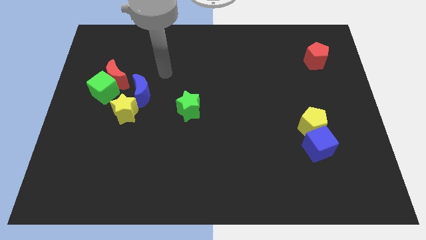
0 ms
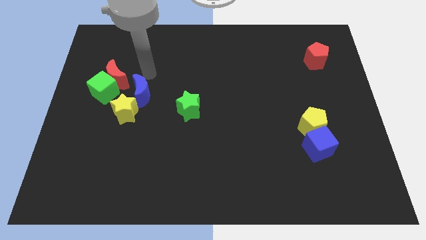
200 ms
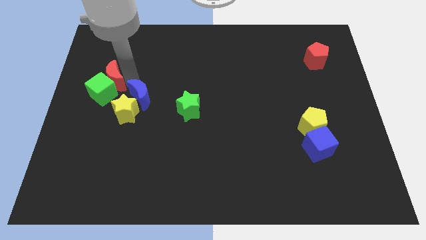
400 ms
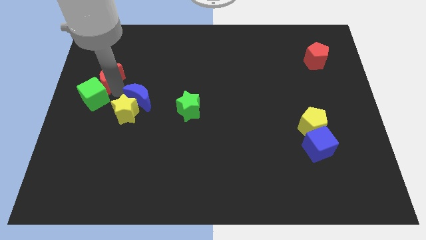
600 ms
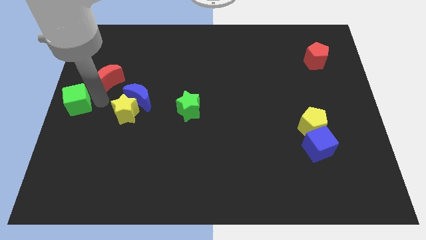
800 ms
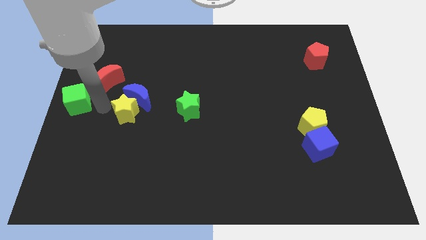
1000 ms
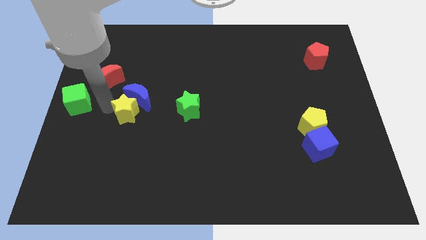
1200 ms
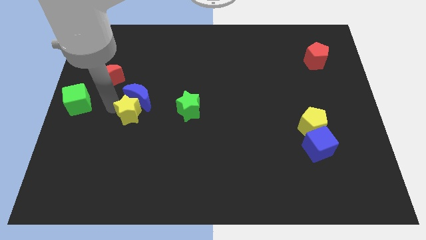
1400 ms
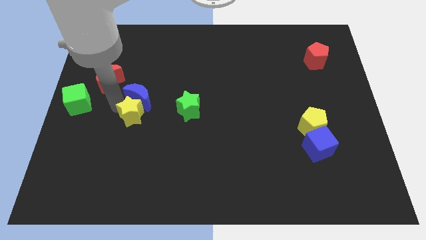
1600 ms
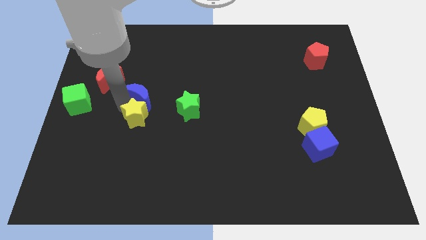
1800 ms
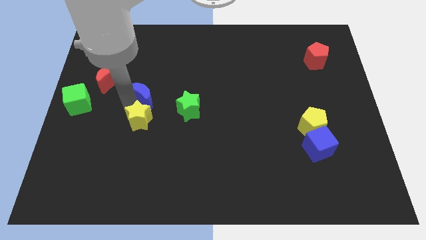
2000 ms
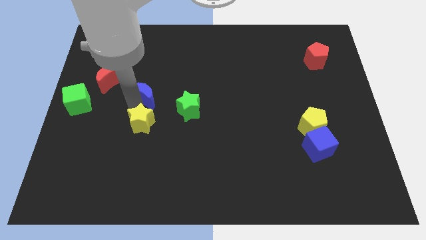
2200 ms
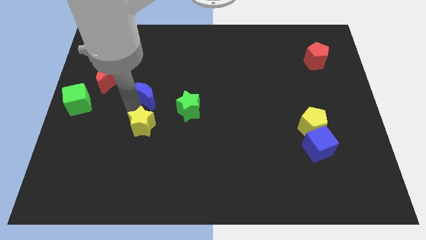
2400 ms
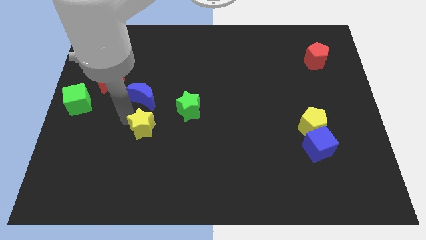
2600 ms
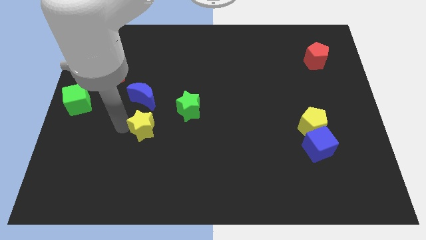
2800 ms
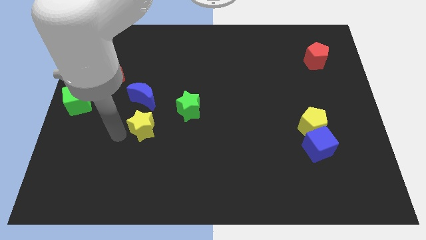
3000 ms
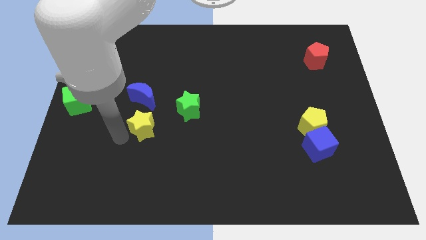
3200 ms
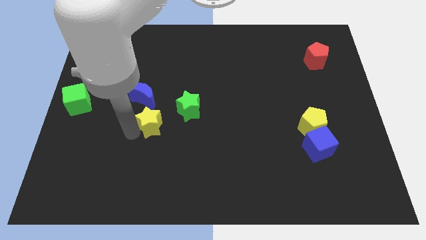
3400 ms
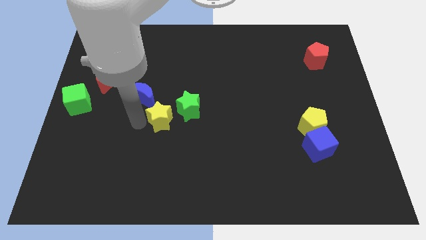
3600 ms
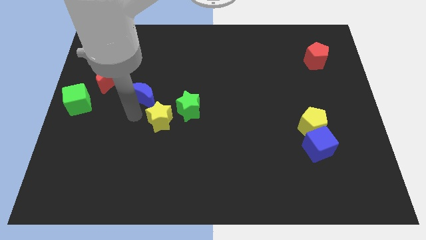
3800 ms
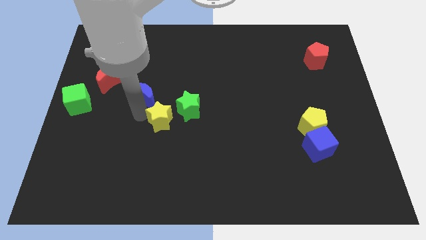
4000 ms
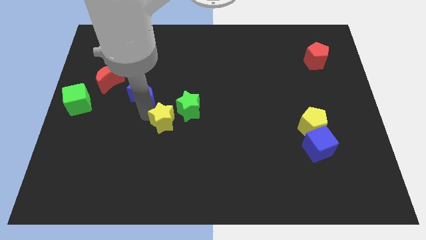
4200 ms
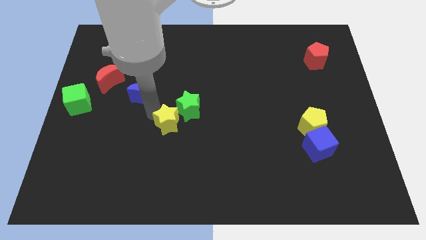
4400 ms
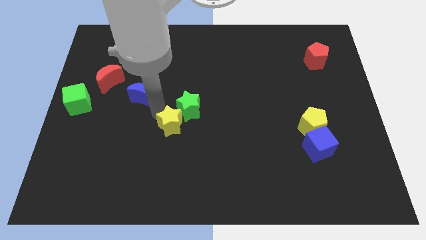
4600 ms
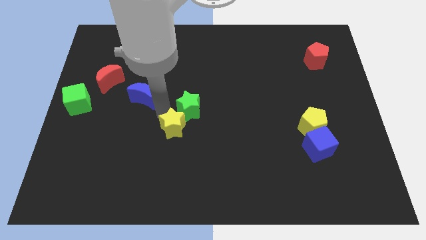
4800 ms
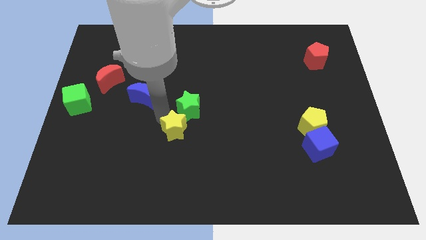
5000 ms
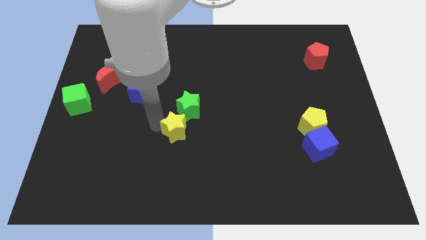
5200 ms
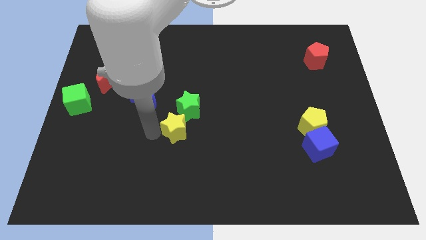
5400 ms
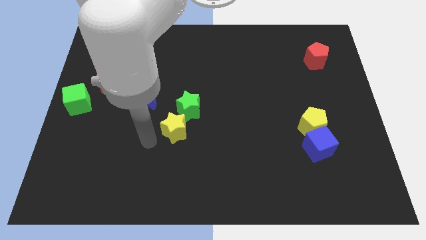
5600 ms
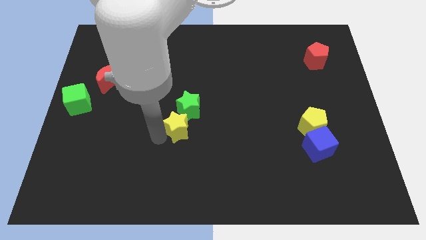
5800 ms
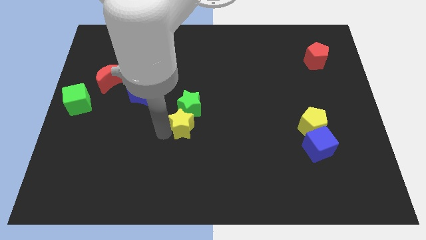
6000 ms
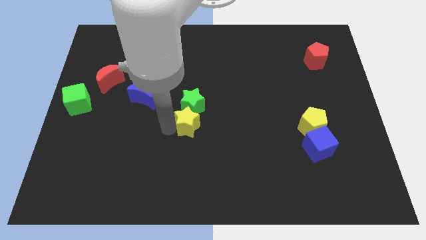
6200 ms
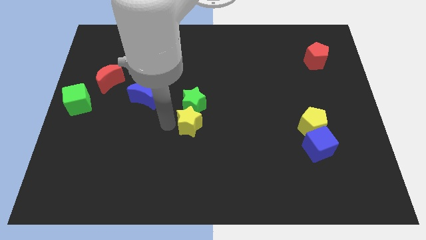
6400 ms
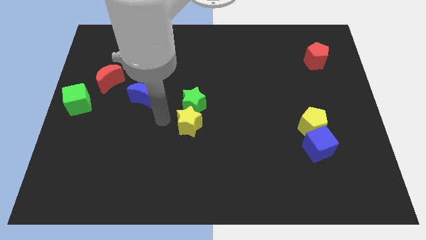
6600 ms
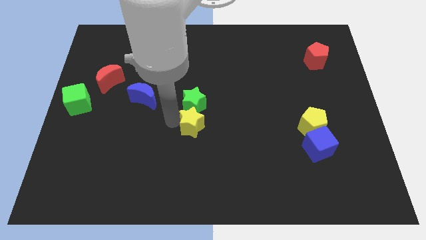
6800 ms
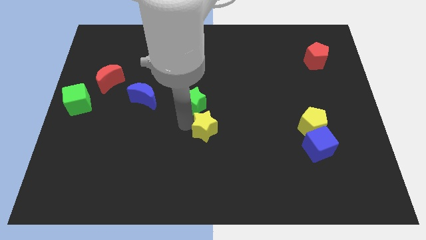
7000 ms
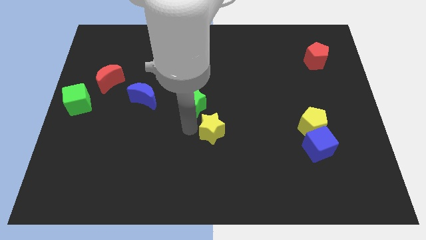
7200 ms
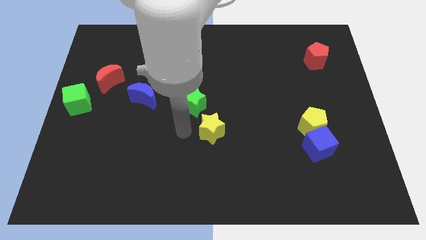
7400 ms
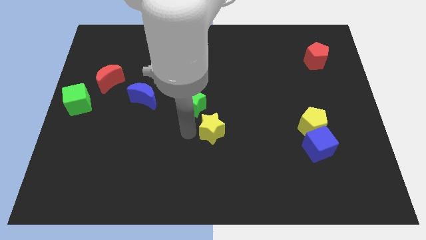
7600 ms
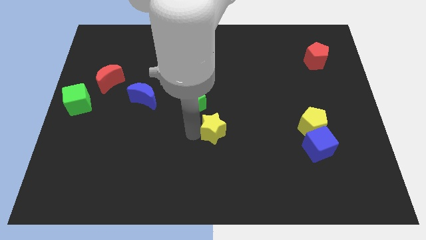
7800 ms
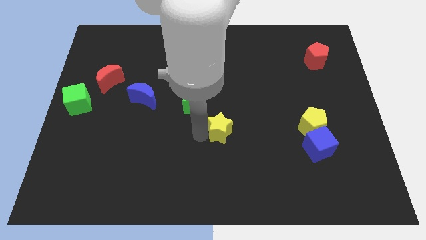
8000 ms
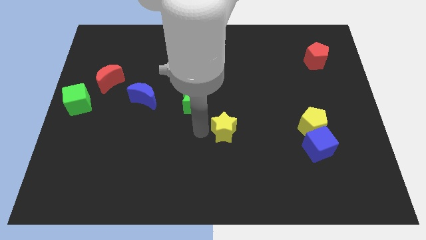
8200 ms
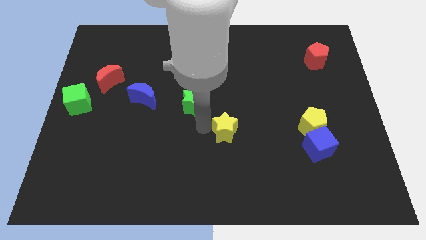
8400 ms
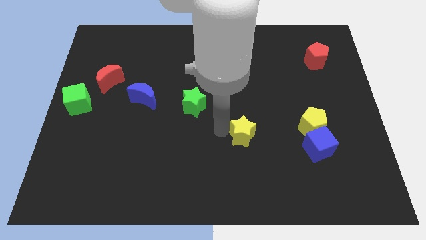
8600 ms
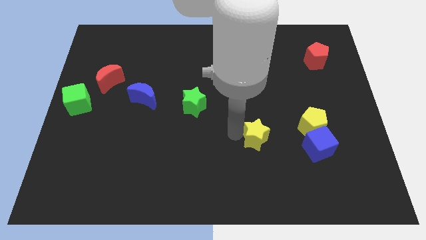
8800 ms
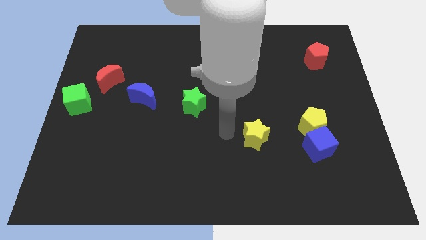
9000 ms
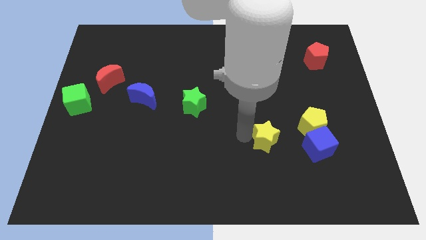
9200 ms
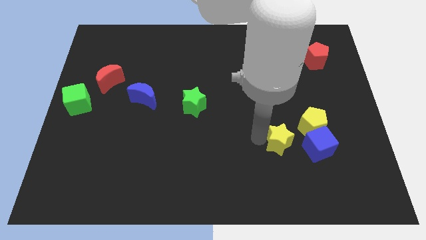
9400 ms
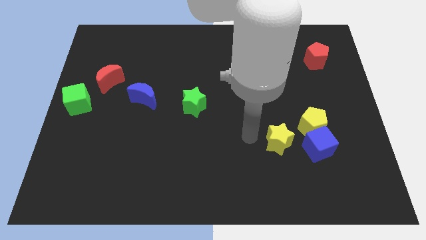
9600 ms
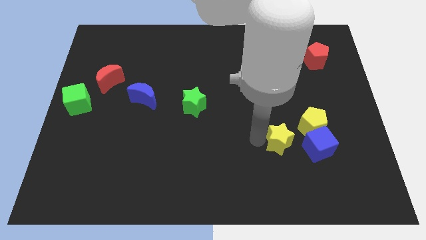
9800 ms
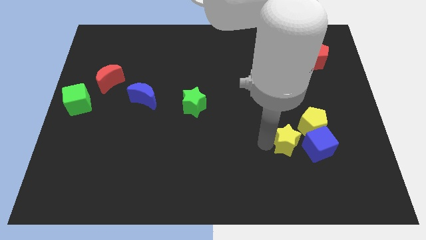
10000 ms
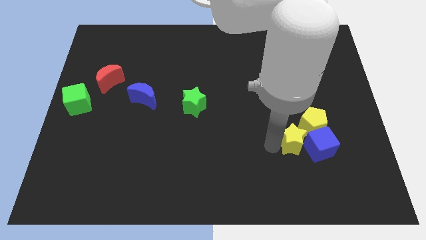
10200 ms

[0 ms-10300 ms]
move the yellow star close to the blue cube

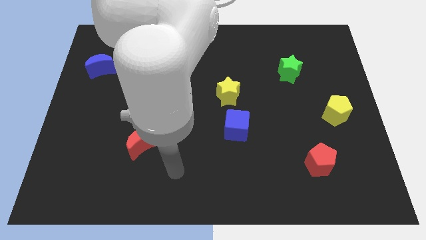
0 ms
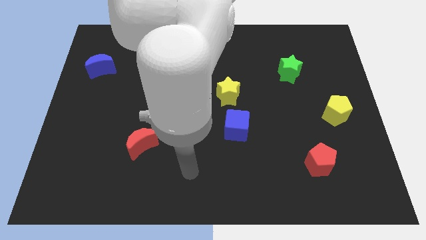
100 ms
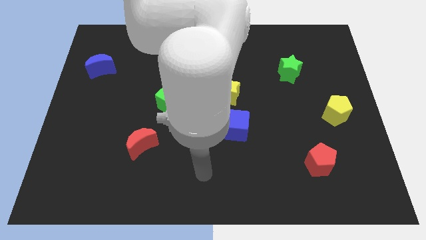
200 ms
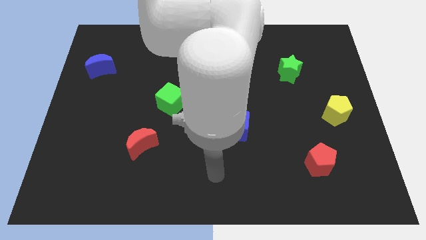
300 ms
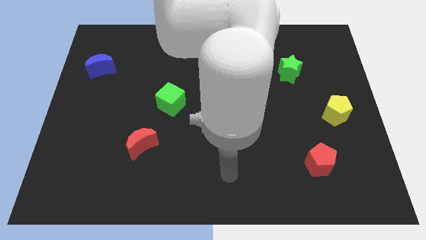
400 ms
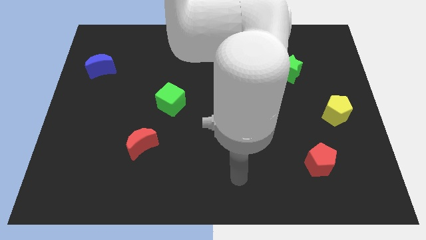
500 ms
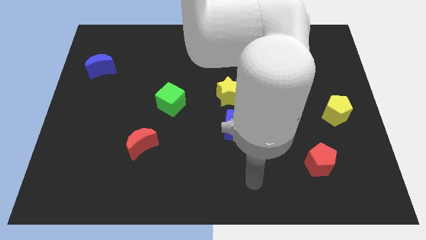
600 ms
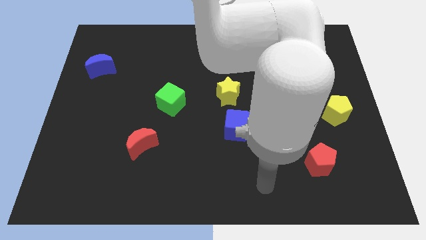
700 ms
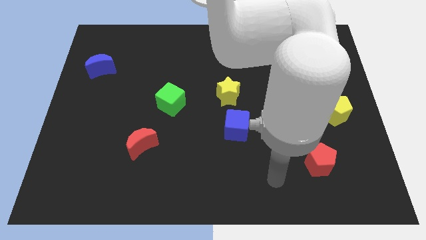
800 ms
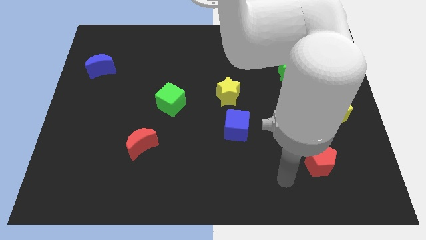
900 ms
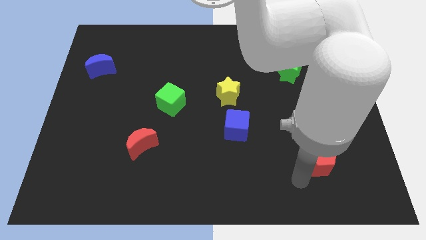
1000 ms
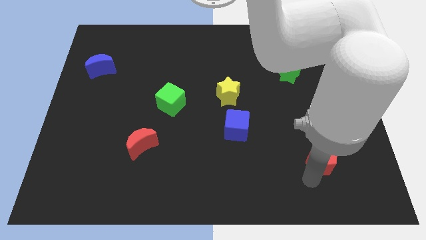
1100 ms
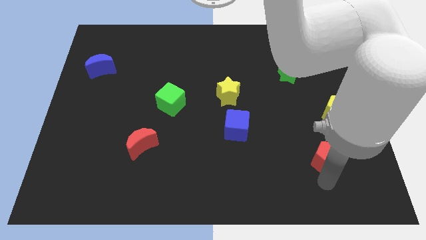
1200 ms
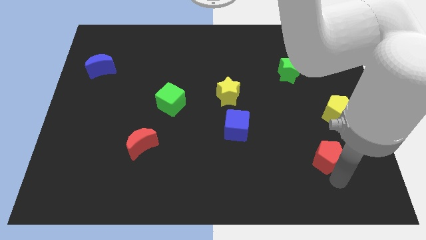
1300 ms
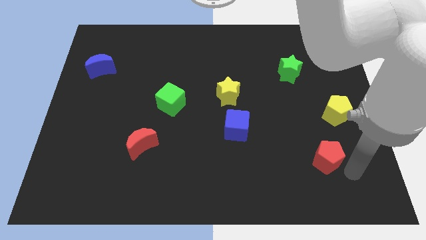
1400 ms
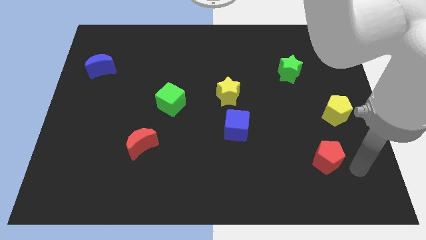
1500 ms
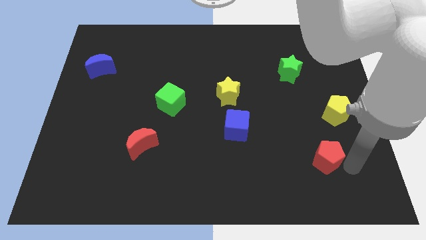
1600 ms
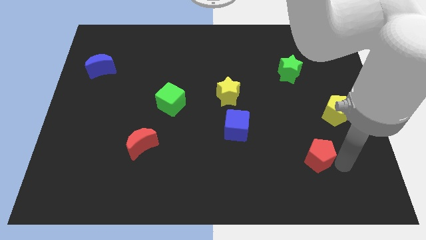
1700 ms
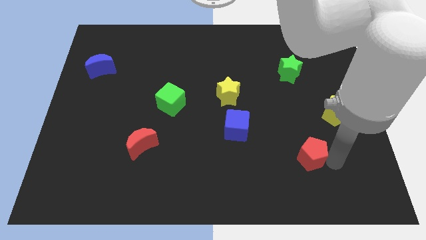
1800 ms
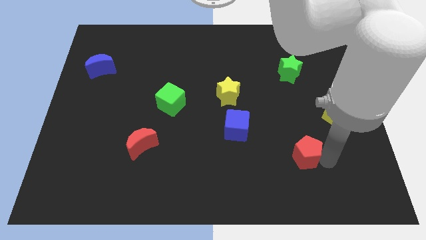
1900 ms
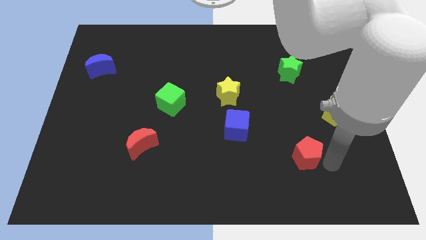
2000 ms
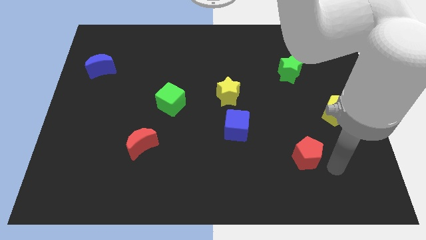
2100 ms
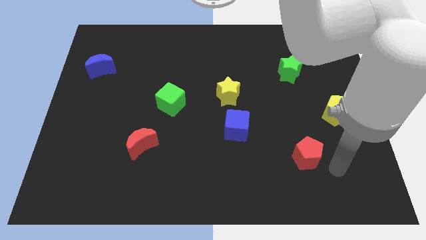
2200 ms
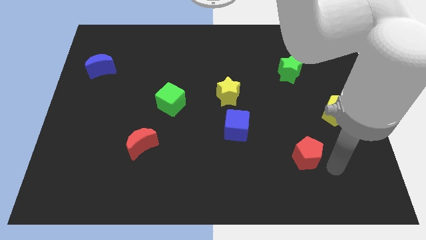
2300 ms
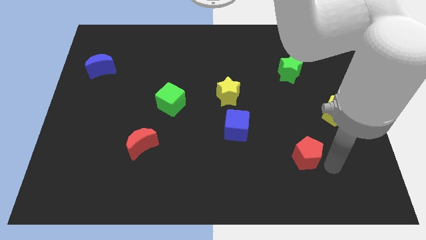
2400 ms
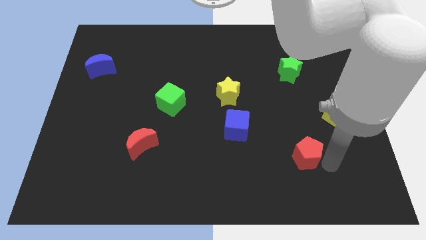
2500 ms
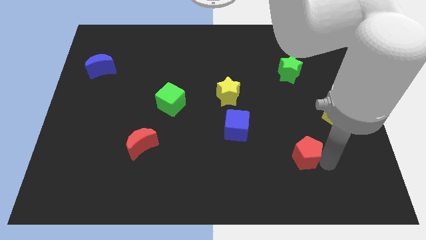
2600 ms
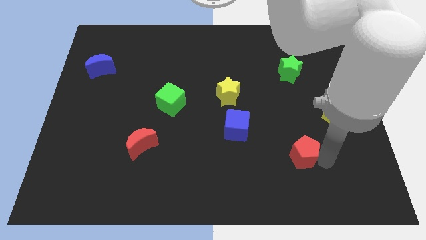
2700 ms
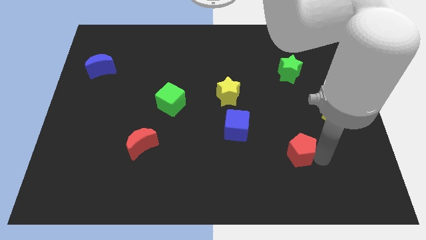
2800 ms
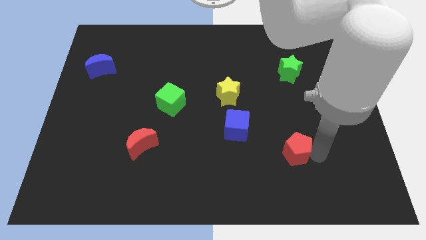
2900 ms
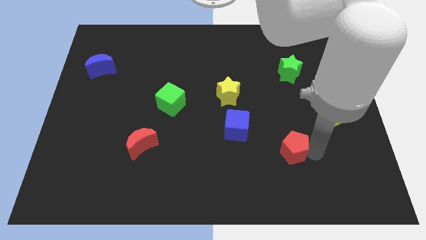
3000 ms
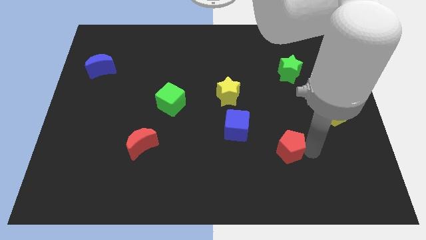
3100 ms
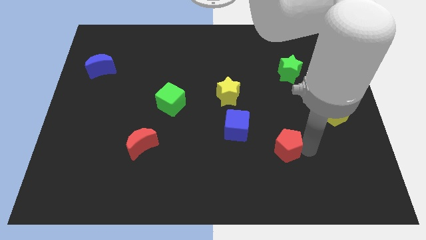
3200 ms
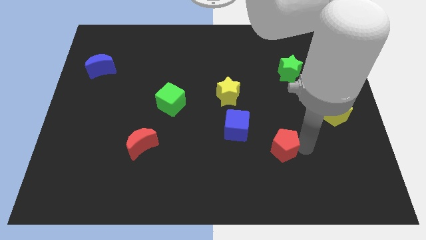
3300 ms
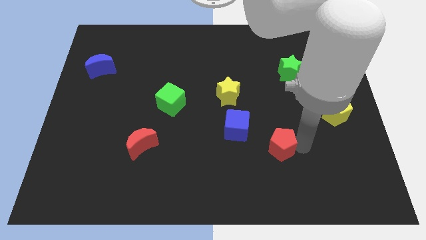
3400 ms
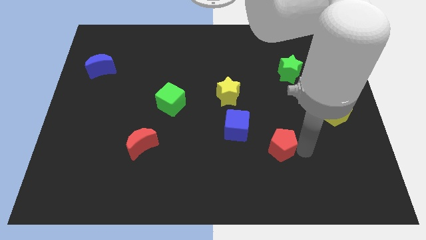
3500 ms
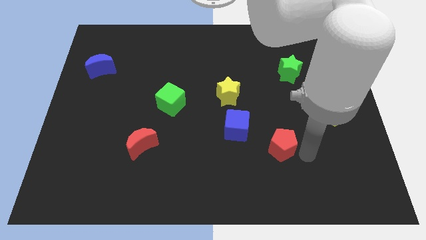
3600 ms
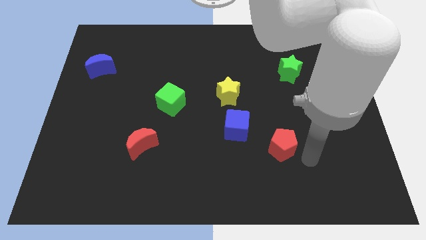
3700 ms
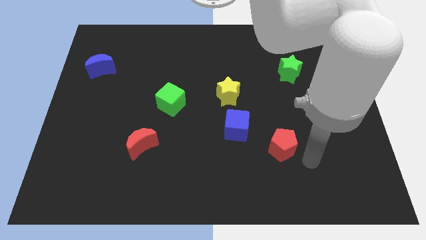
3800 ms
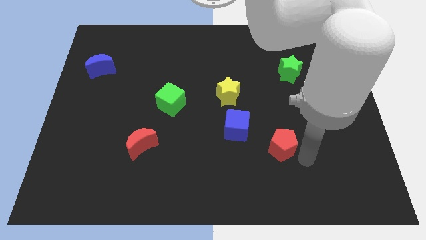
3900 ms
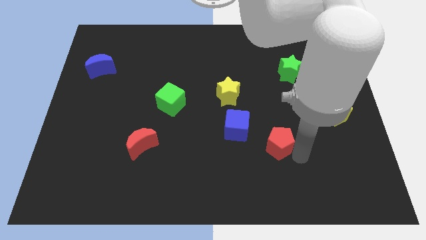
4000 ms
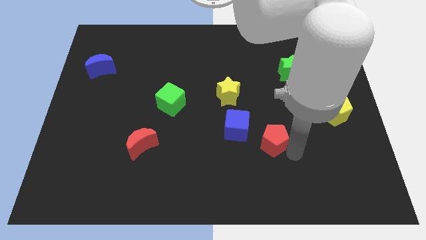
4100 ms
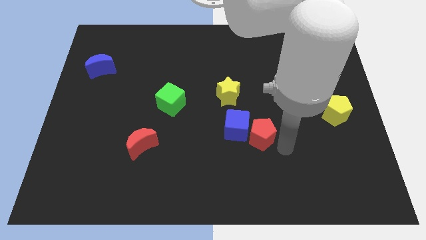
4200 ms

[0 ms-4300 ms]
slide the red pentagon to the blue cube
